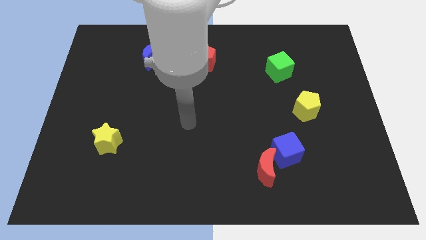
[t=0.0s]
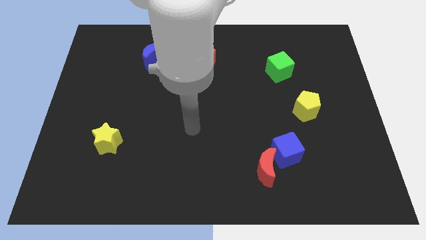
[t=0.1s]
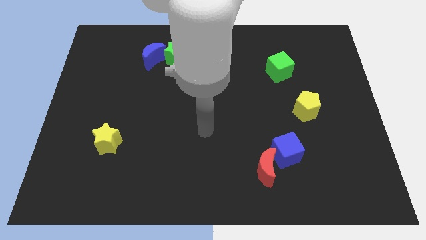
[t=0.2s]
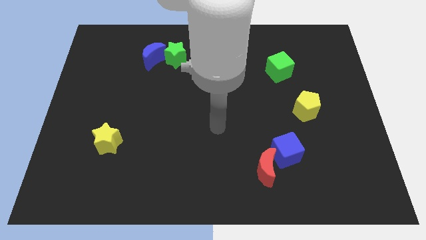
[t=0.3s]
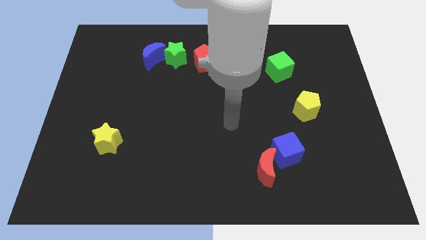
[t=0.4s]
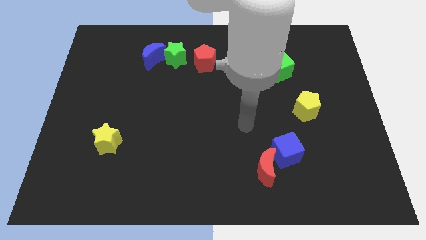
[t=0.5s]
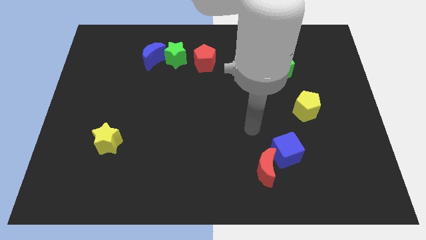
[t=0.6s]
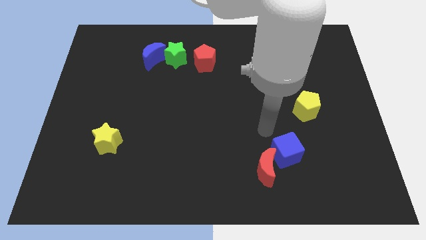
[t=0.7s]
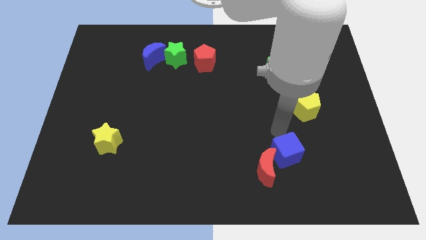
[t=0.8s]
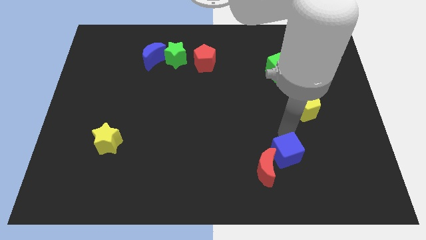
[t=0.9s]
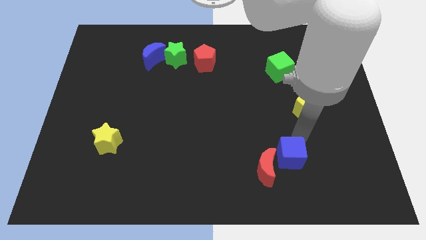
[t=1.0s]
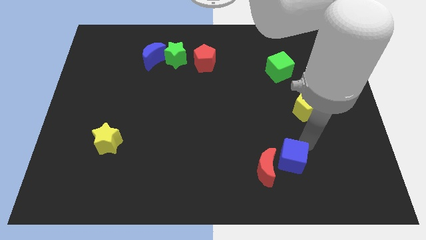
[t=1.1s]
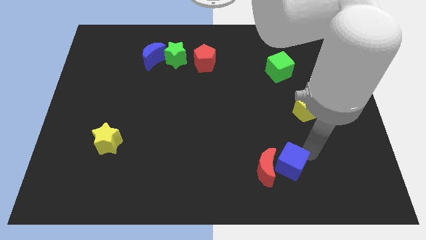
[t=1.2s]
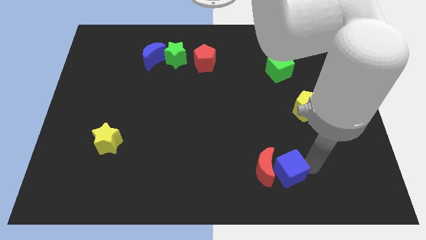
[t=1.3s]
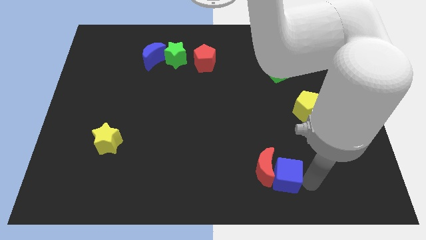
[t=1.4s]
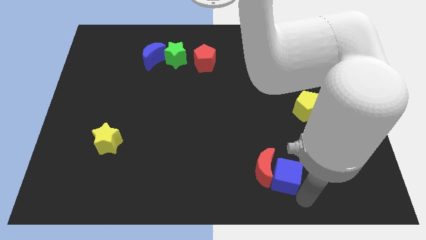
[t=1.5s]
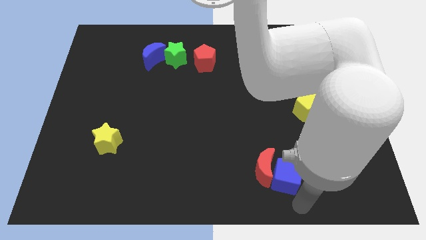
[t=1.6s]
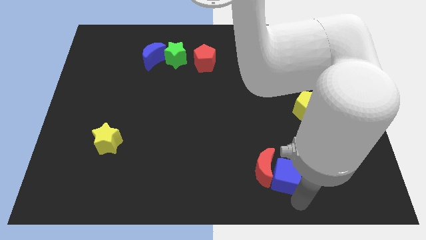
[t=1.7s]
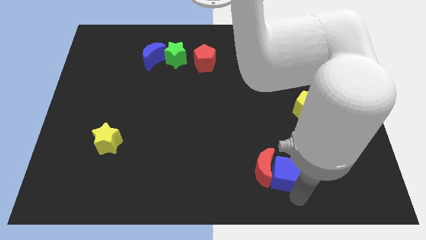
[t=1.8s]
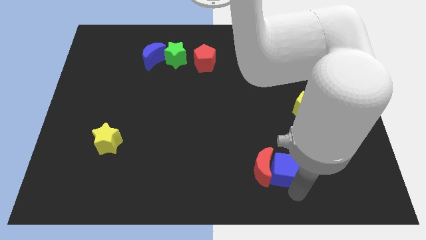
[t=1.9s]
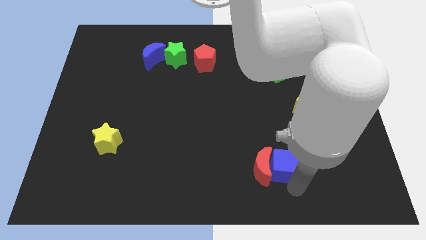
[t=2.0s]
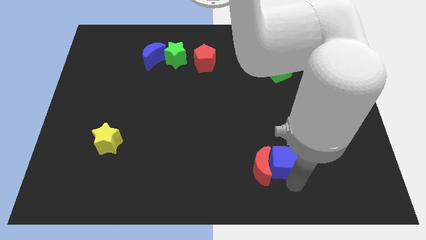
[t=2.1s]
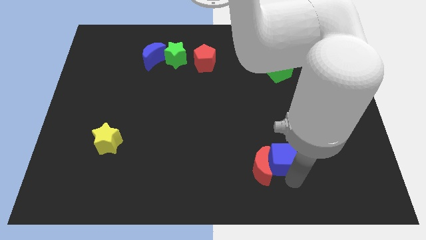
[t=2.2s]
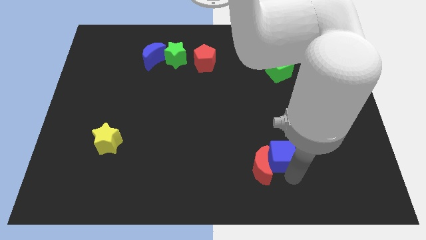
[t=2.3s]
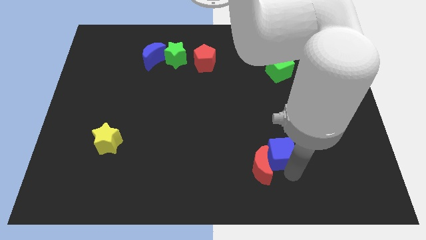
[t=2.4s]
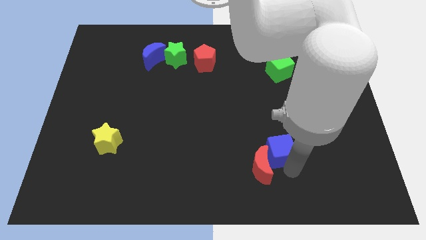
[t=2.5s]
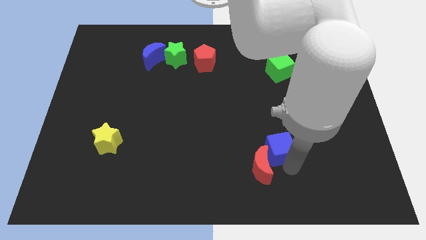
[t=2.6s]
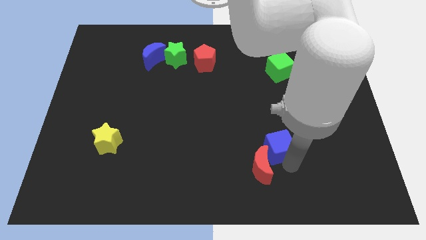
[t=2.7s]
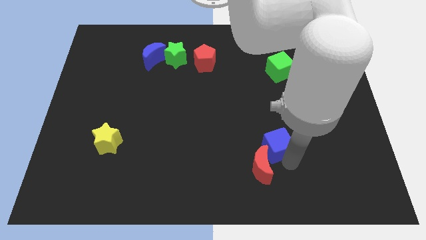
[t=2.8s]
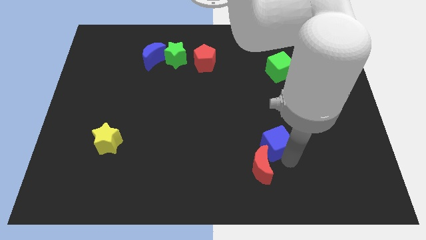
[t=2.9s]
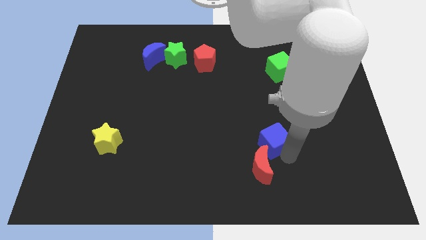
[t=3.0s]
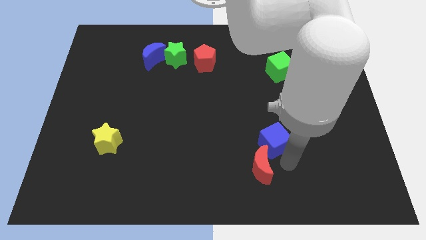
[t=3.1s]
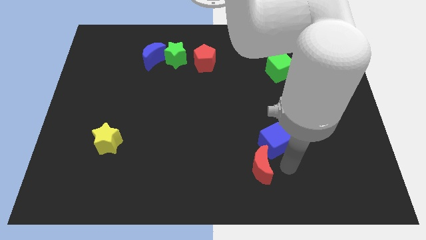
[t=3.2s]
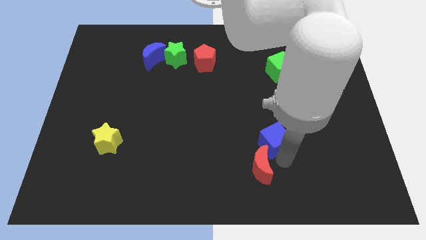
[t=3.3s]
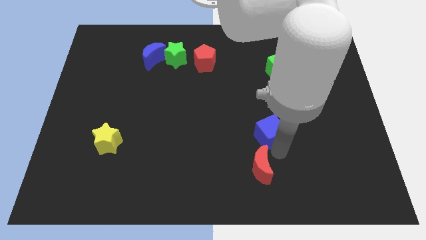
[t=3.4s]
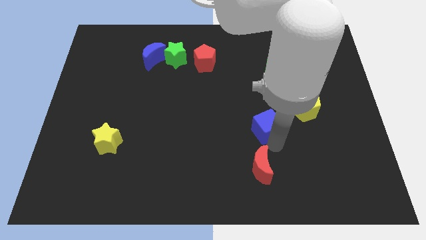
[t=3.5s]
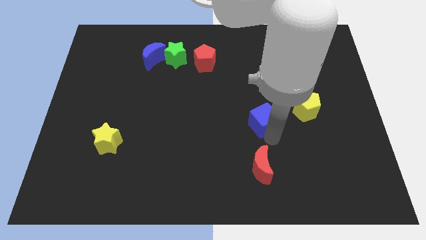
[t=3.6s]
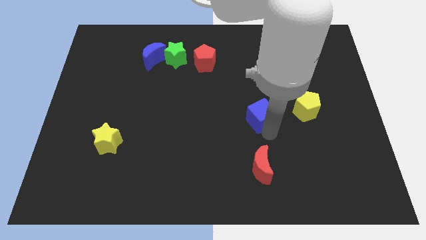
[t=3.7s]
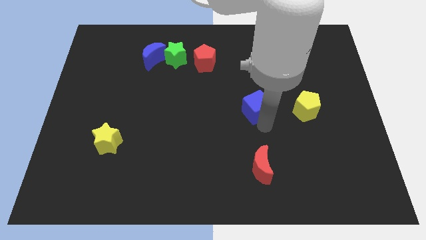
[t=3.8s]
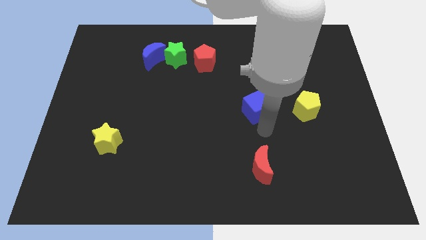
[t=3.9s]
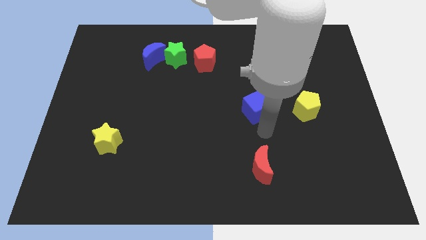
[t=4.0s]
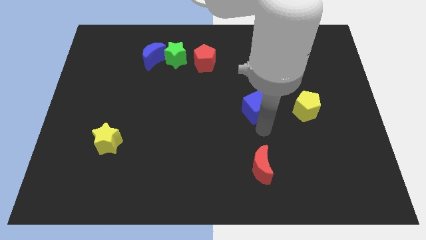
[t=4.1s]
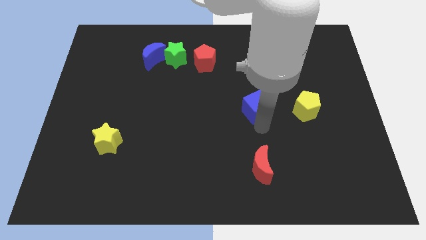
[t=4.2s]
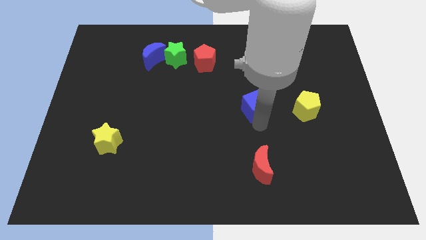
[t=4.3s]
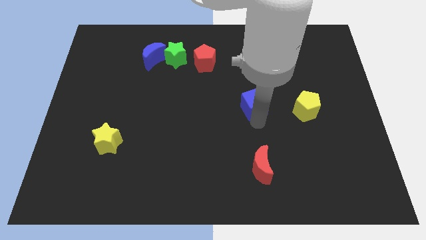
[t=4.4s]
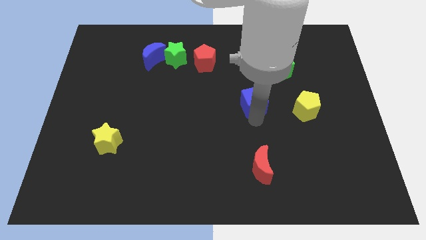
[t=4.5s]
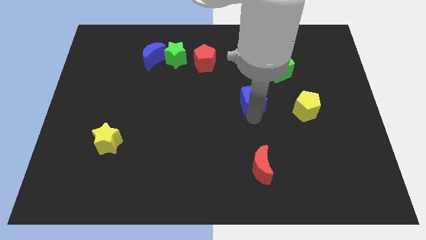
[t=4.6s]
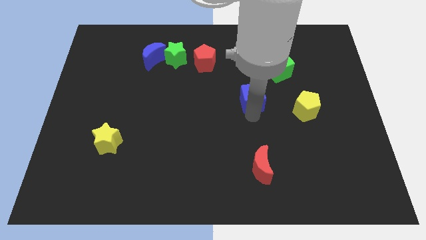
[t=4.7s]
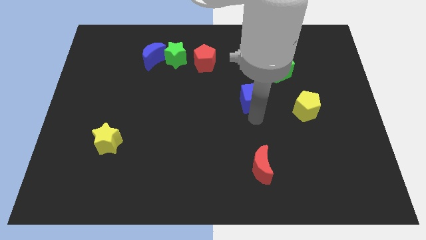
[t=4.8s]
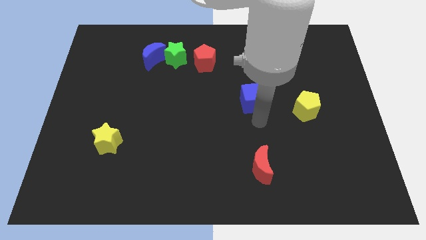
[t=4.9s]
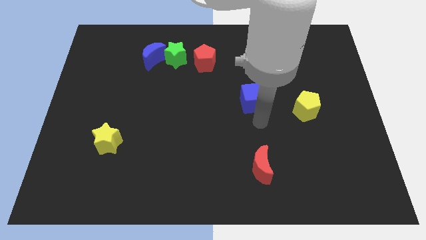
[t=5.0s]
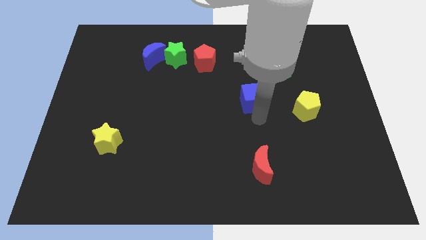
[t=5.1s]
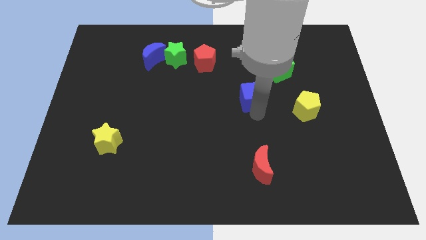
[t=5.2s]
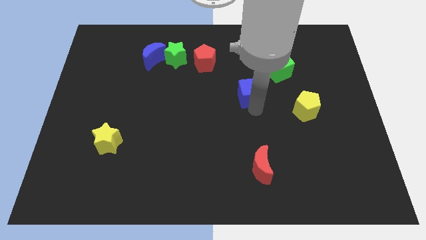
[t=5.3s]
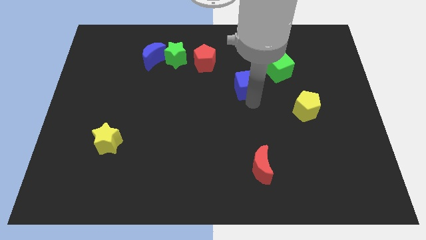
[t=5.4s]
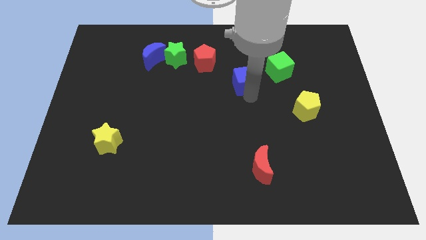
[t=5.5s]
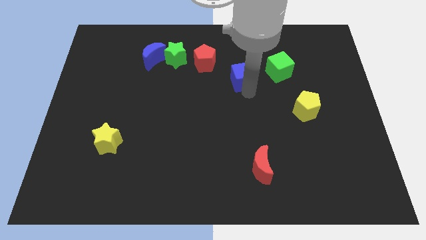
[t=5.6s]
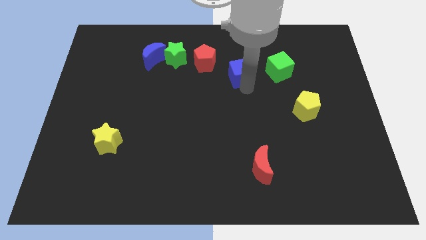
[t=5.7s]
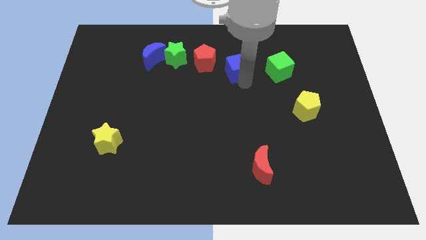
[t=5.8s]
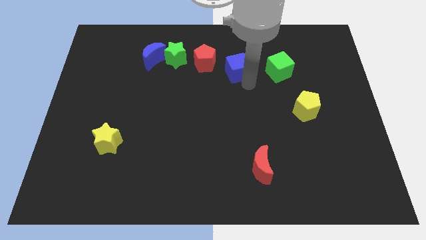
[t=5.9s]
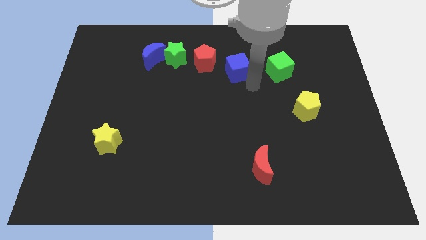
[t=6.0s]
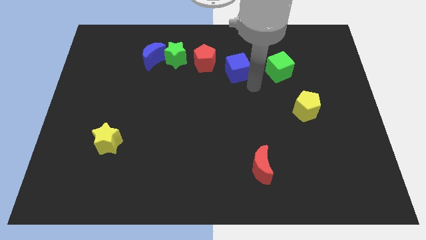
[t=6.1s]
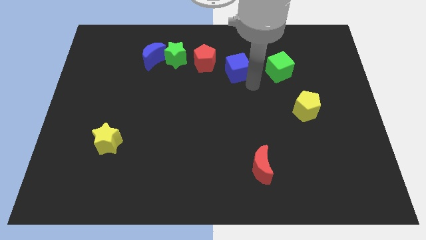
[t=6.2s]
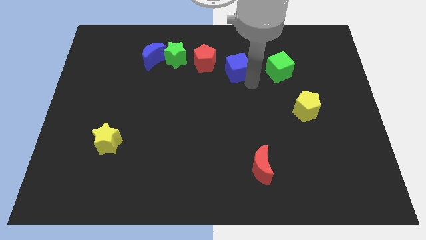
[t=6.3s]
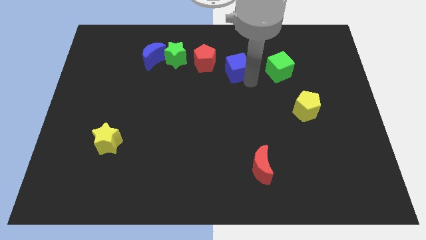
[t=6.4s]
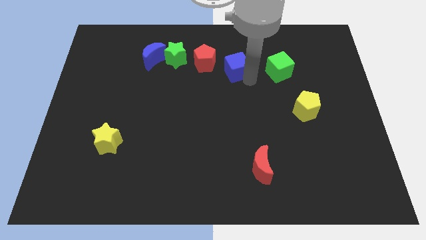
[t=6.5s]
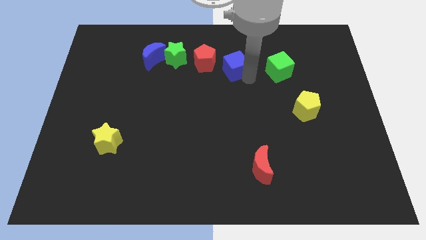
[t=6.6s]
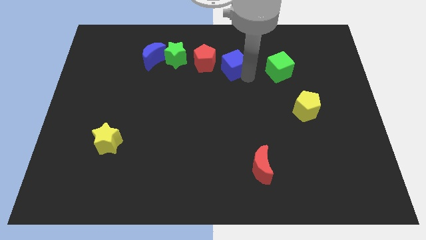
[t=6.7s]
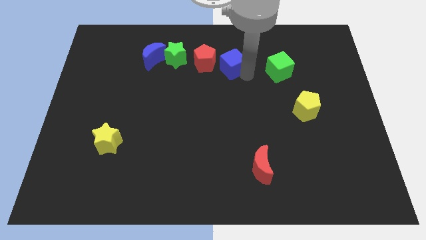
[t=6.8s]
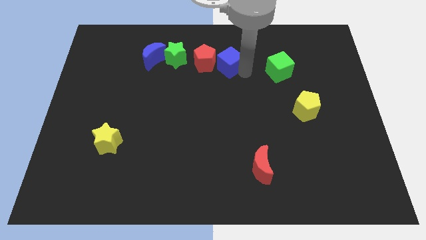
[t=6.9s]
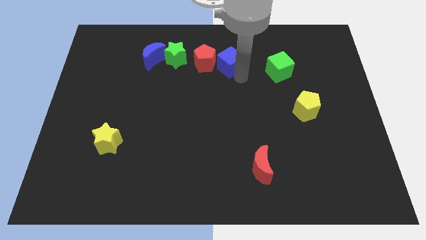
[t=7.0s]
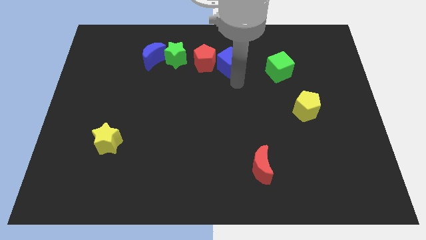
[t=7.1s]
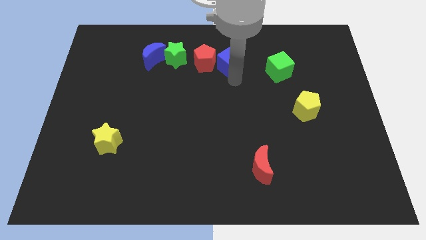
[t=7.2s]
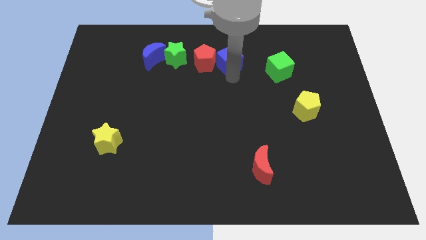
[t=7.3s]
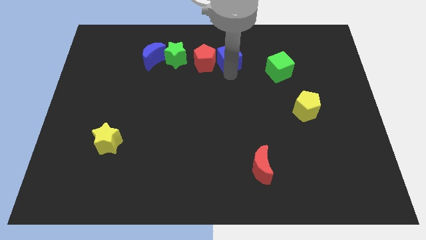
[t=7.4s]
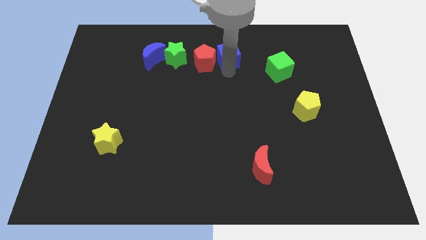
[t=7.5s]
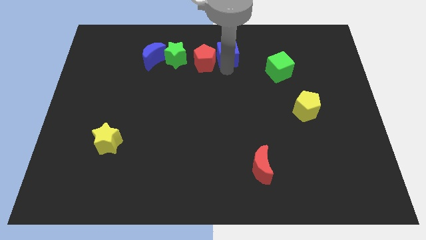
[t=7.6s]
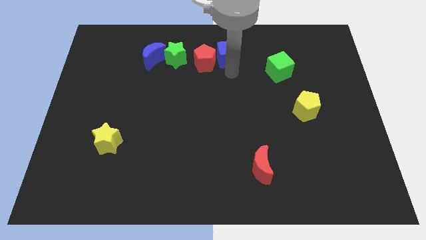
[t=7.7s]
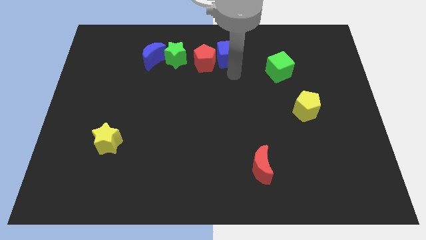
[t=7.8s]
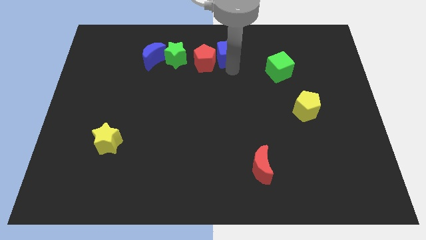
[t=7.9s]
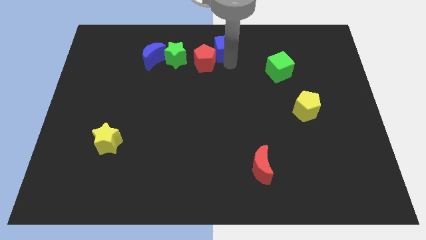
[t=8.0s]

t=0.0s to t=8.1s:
move the blue cube to the towards your base
